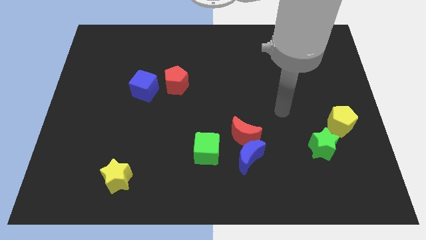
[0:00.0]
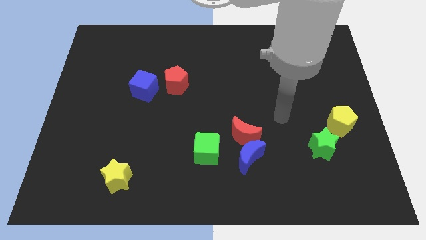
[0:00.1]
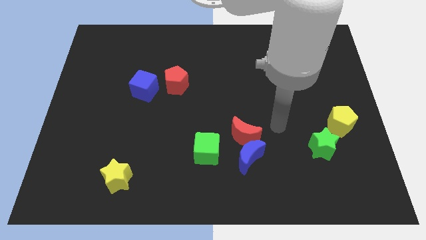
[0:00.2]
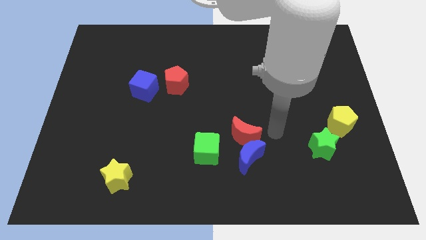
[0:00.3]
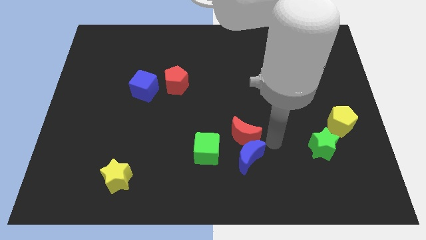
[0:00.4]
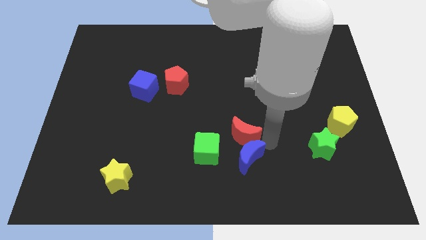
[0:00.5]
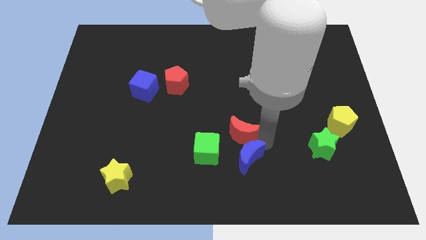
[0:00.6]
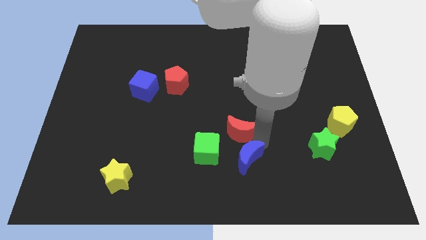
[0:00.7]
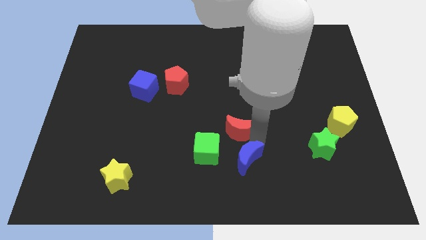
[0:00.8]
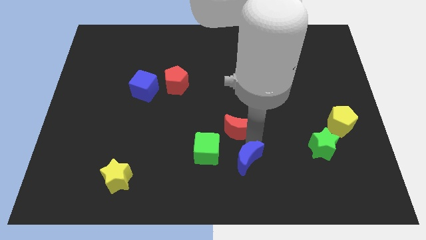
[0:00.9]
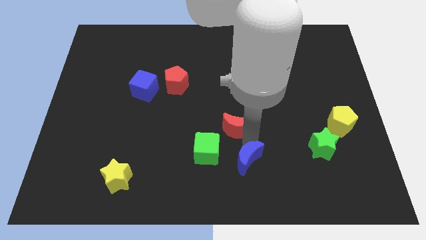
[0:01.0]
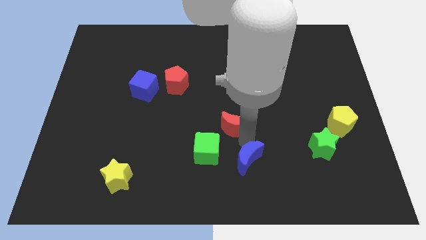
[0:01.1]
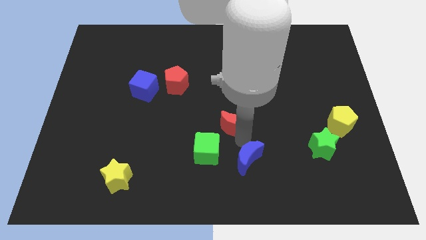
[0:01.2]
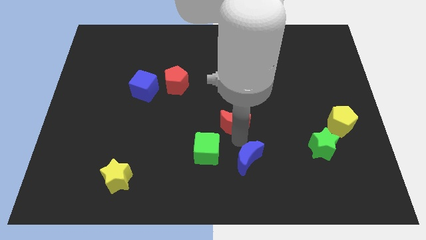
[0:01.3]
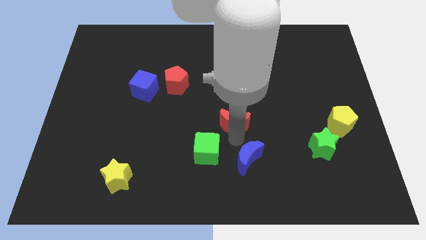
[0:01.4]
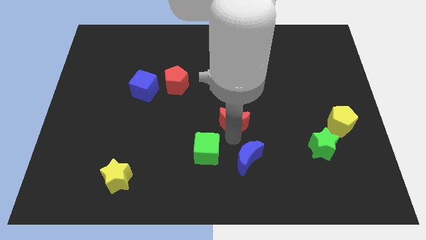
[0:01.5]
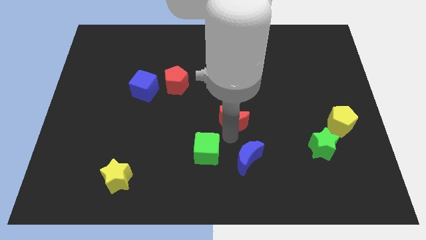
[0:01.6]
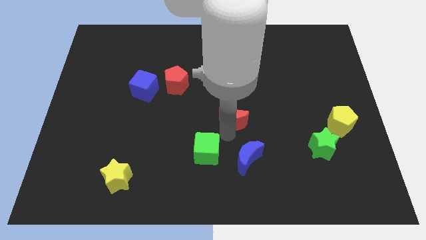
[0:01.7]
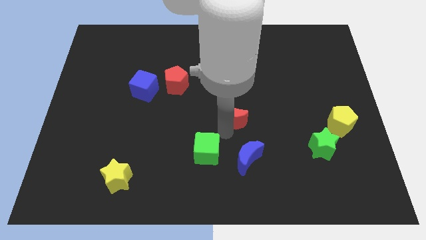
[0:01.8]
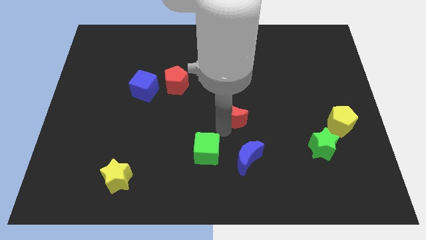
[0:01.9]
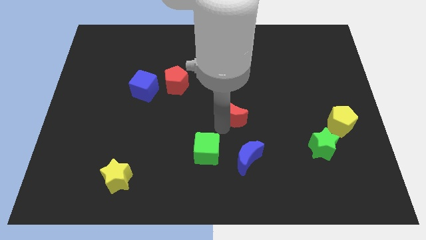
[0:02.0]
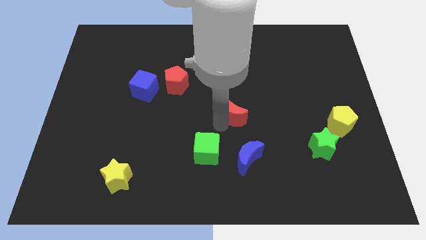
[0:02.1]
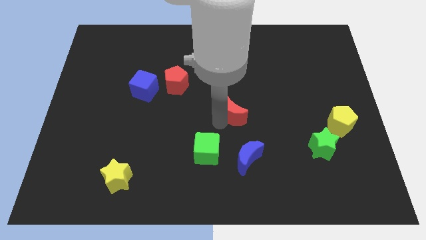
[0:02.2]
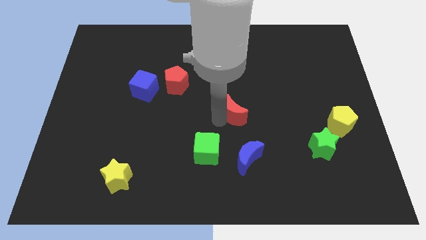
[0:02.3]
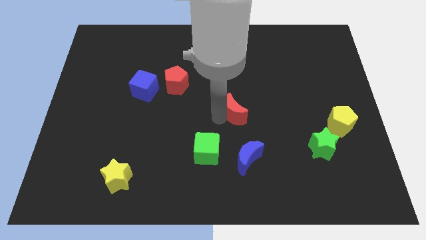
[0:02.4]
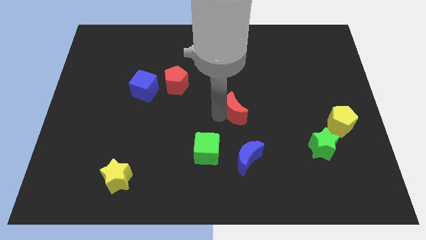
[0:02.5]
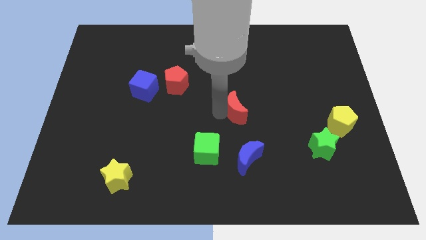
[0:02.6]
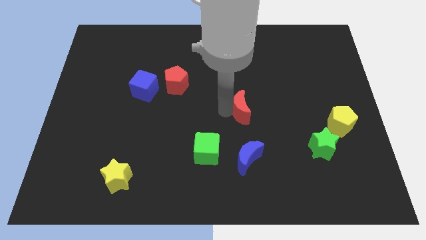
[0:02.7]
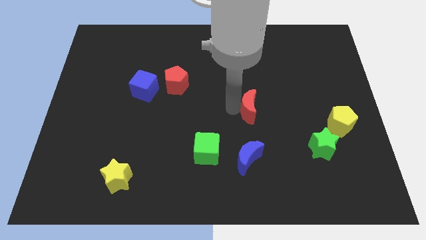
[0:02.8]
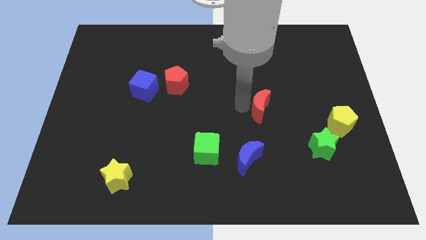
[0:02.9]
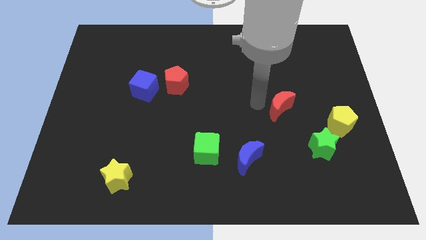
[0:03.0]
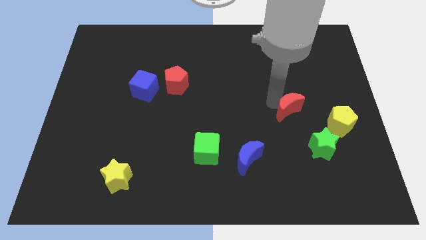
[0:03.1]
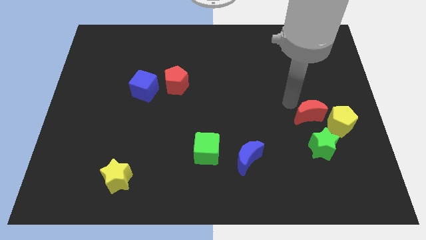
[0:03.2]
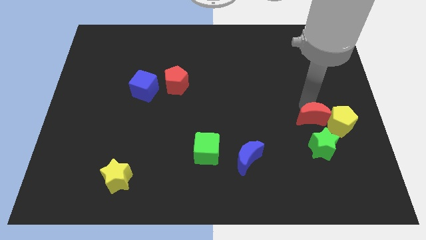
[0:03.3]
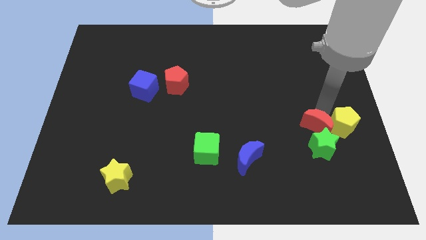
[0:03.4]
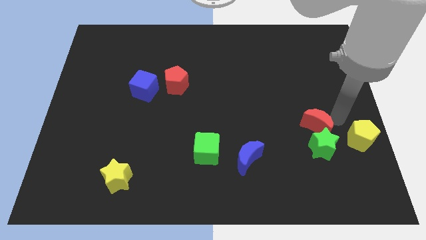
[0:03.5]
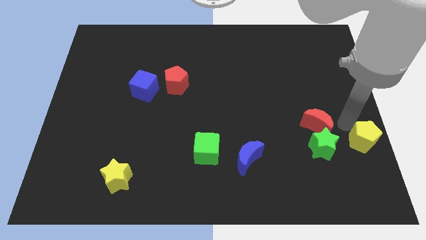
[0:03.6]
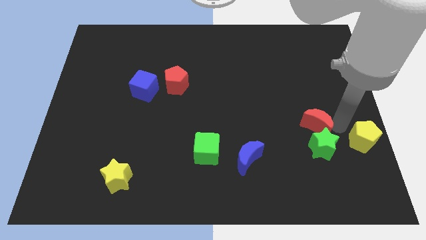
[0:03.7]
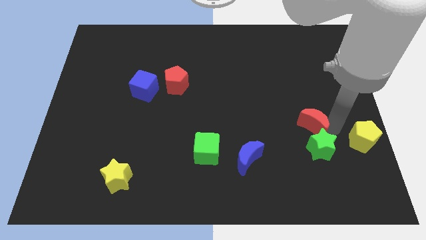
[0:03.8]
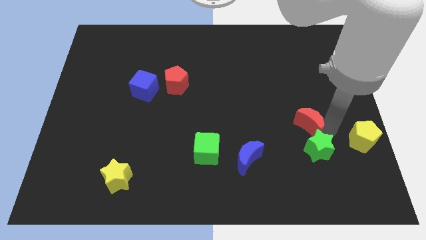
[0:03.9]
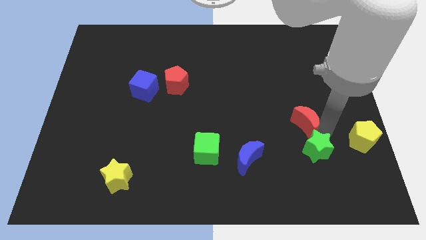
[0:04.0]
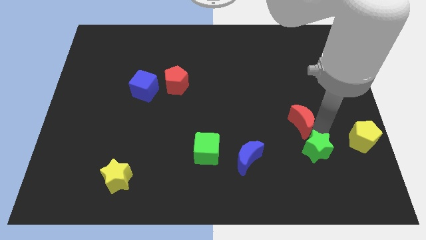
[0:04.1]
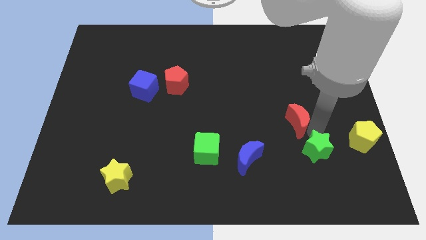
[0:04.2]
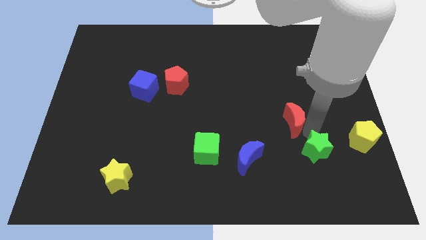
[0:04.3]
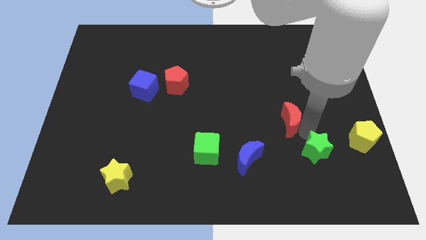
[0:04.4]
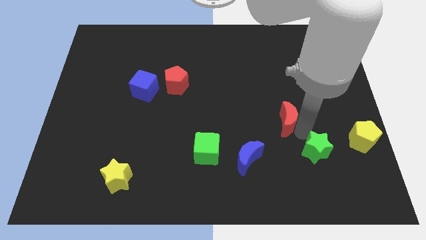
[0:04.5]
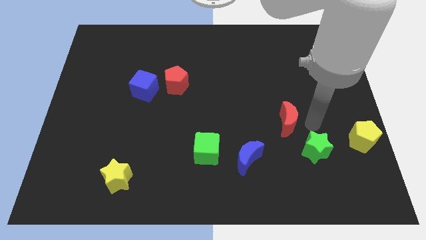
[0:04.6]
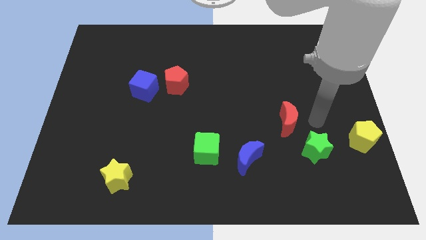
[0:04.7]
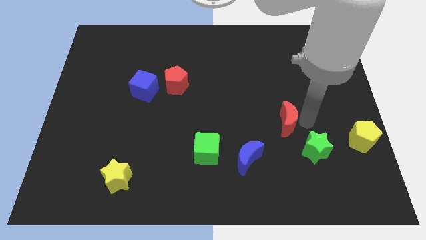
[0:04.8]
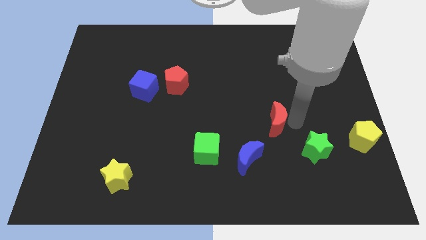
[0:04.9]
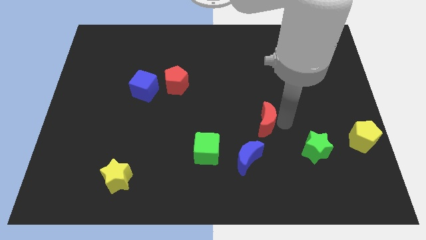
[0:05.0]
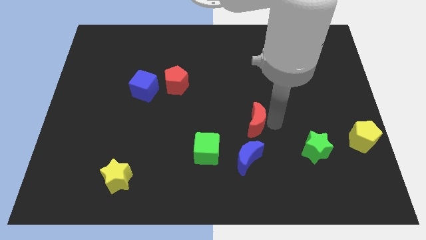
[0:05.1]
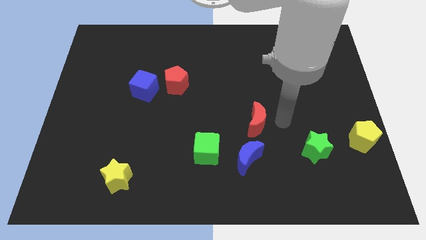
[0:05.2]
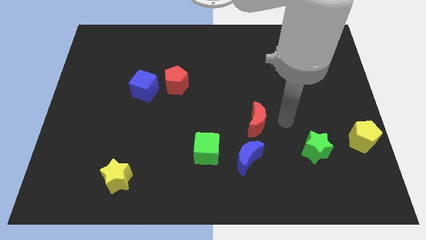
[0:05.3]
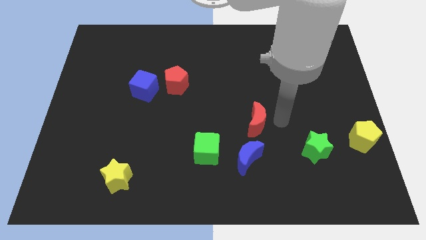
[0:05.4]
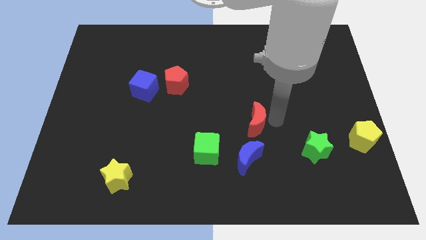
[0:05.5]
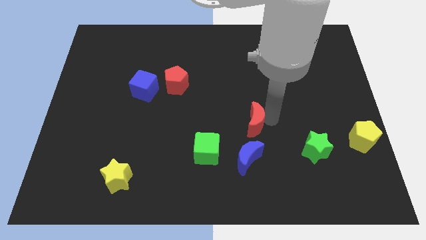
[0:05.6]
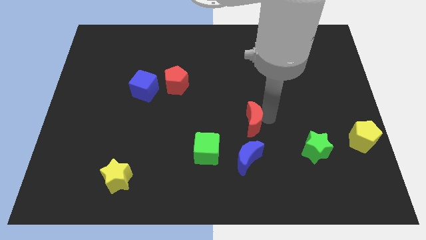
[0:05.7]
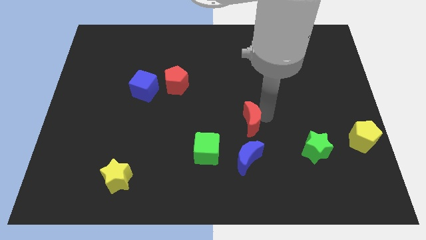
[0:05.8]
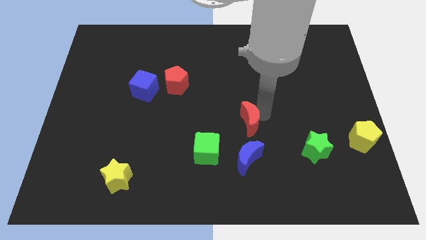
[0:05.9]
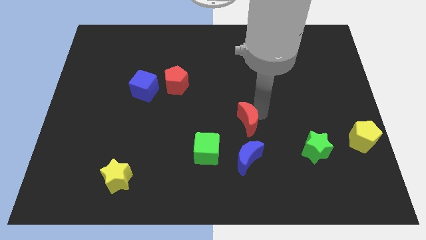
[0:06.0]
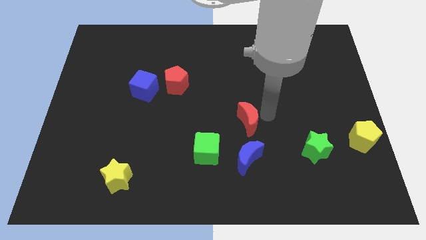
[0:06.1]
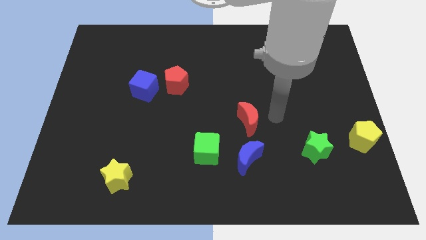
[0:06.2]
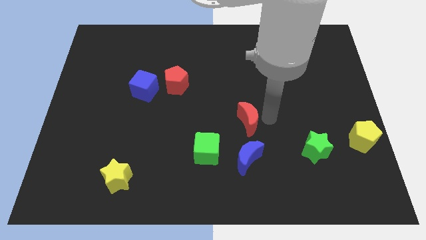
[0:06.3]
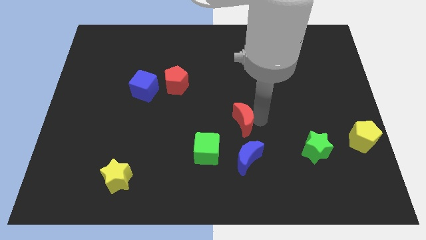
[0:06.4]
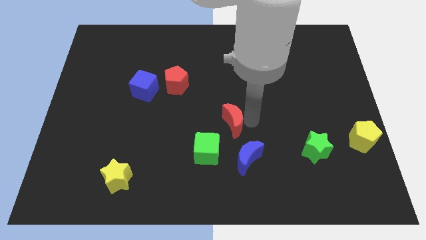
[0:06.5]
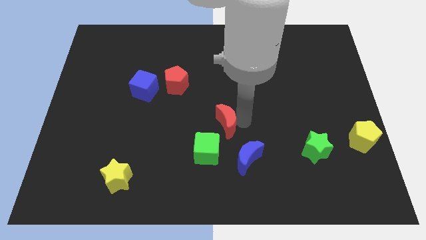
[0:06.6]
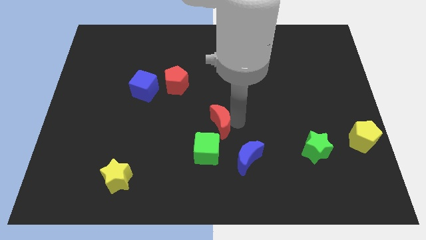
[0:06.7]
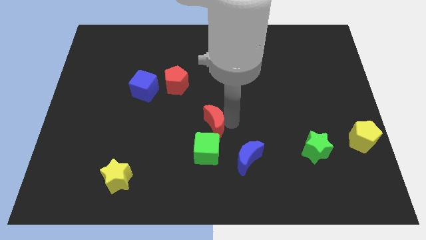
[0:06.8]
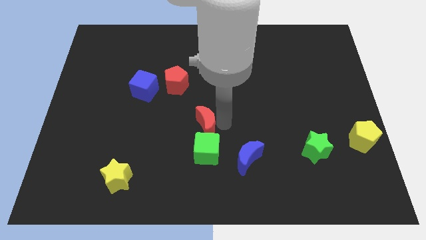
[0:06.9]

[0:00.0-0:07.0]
slightly push the red moon to the left

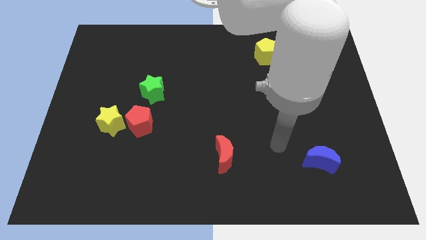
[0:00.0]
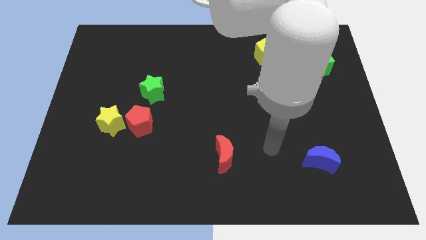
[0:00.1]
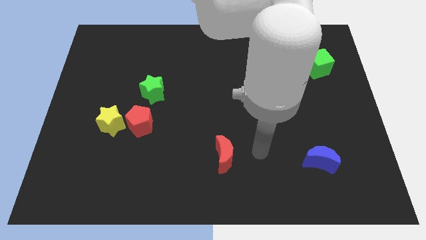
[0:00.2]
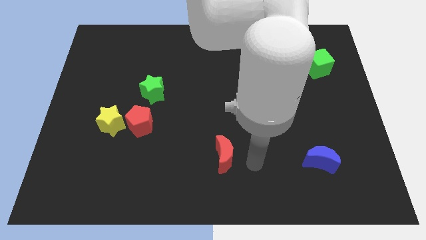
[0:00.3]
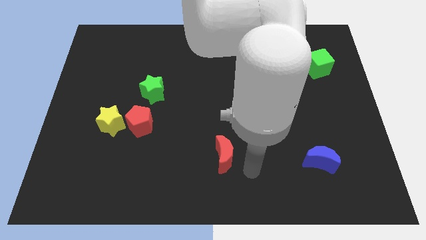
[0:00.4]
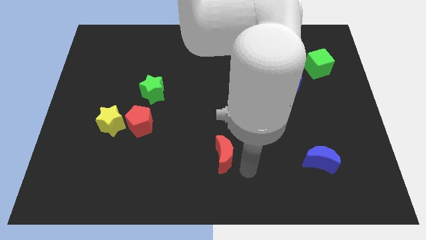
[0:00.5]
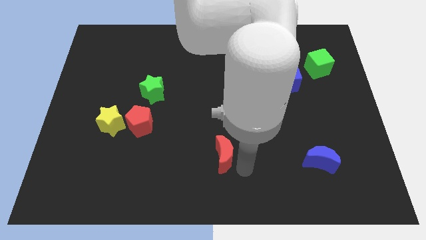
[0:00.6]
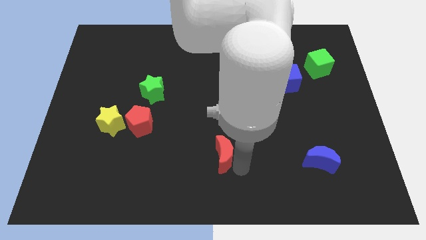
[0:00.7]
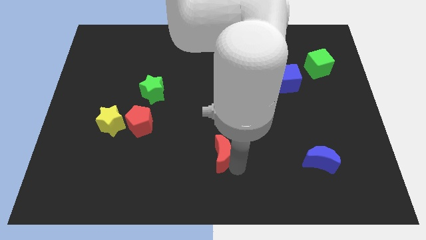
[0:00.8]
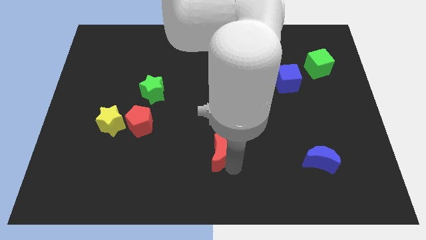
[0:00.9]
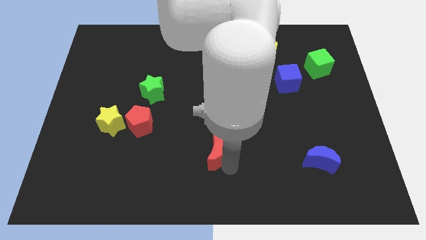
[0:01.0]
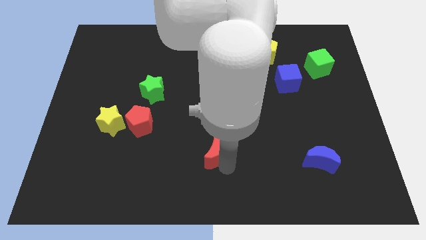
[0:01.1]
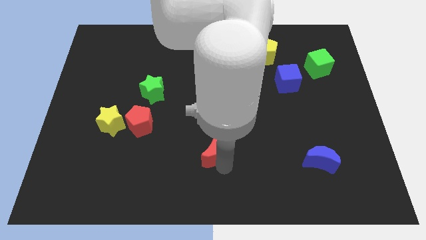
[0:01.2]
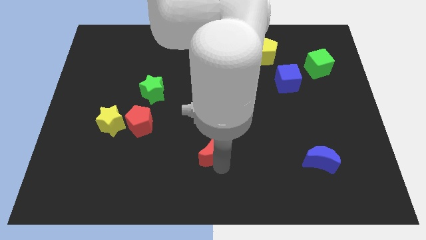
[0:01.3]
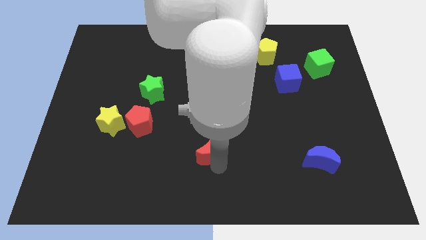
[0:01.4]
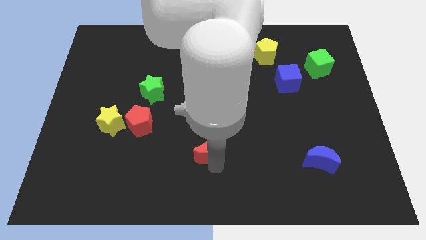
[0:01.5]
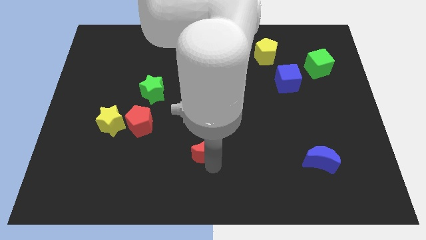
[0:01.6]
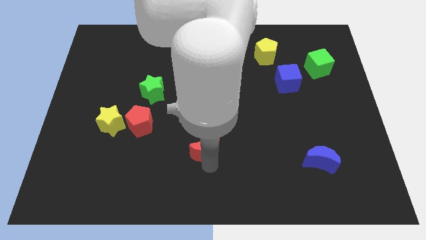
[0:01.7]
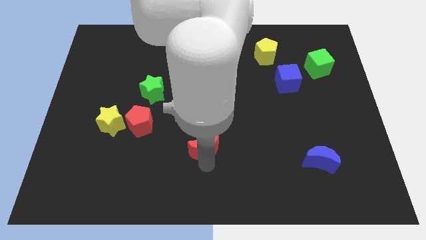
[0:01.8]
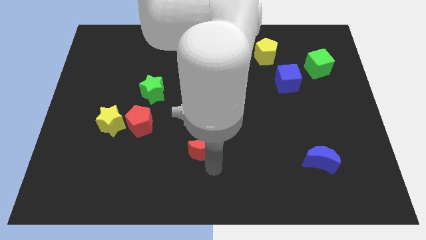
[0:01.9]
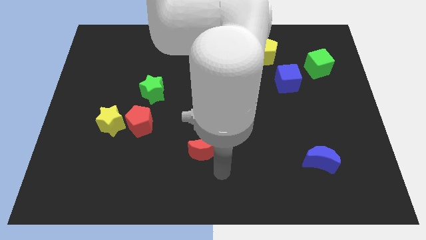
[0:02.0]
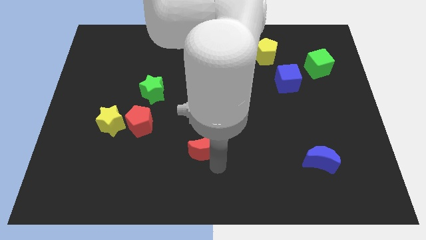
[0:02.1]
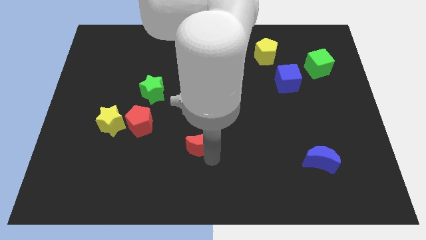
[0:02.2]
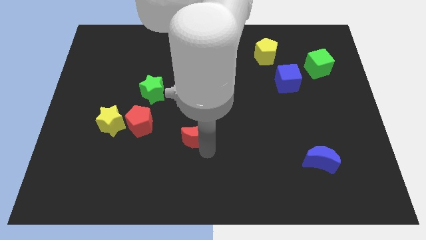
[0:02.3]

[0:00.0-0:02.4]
slightly push the red moon up and left
